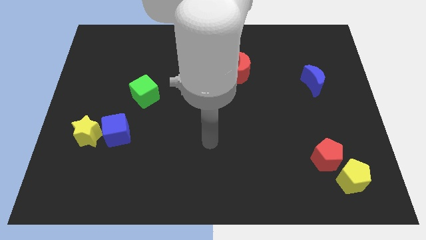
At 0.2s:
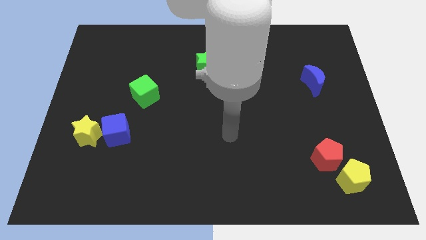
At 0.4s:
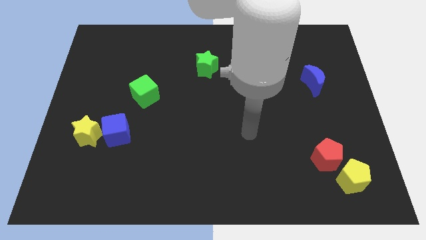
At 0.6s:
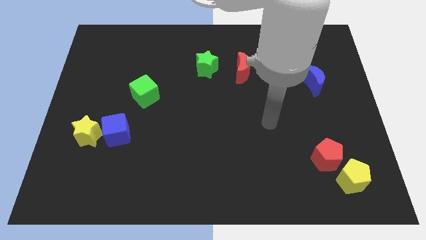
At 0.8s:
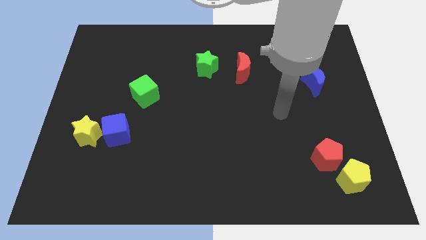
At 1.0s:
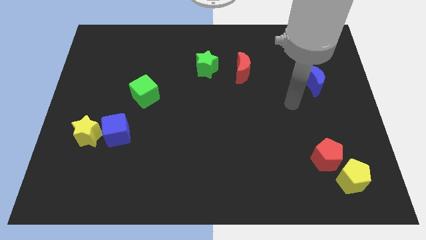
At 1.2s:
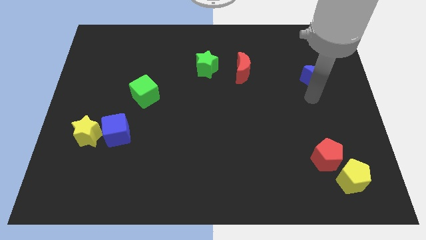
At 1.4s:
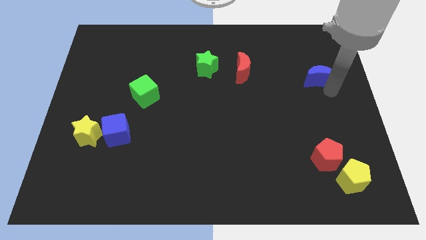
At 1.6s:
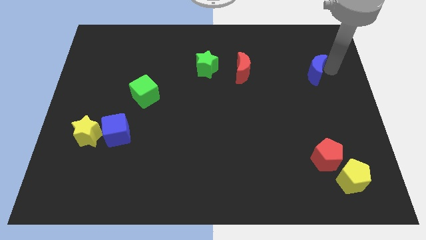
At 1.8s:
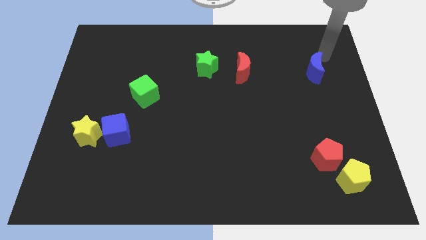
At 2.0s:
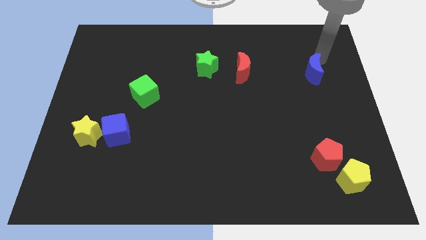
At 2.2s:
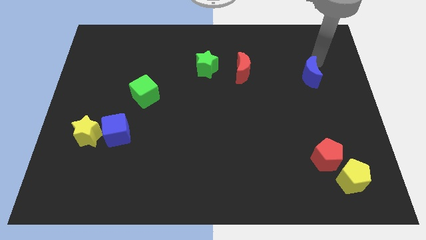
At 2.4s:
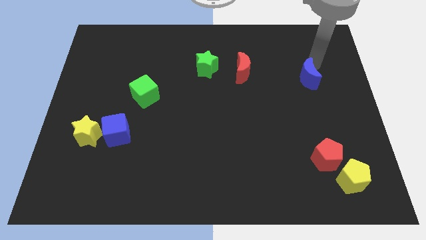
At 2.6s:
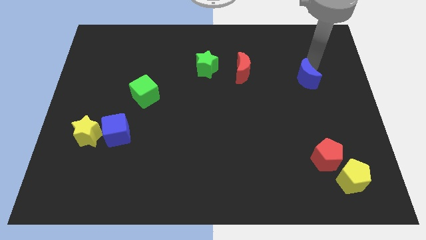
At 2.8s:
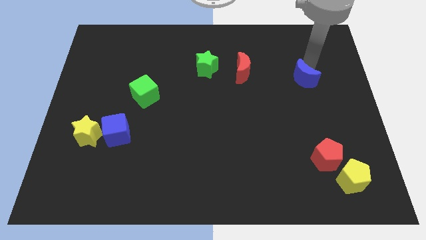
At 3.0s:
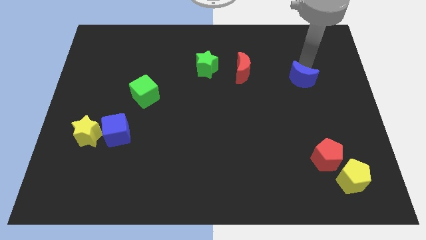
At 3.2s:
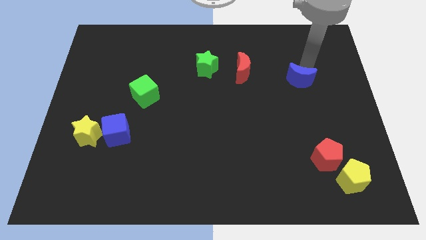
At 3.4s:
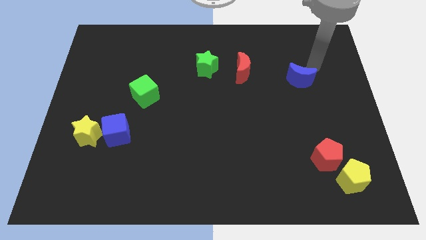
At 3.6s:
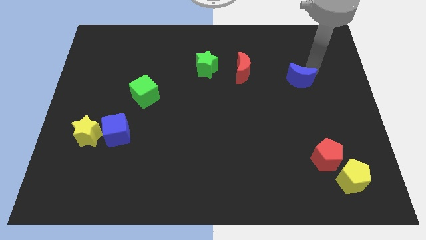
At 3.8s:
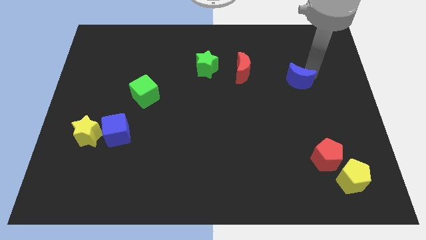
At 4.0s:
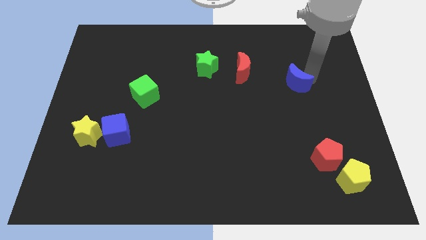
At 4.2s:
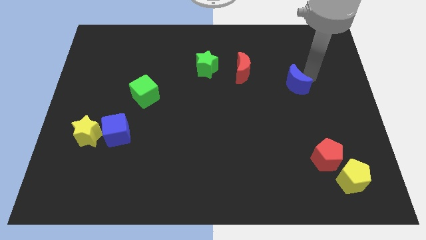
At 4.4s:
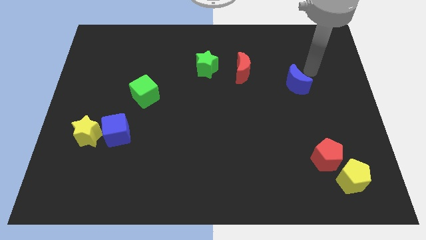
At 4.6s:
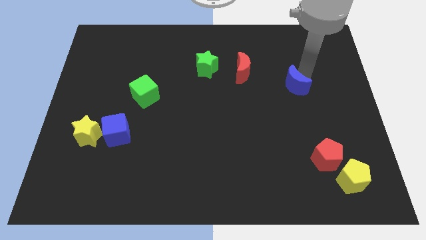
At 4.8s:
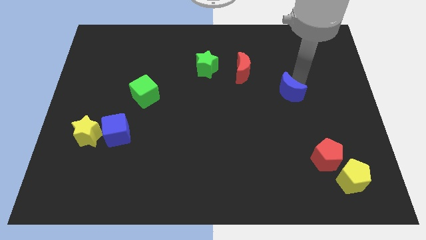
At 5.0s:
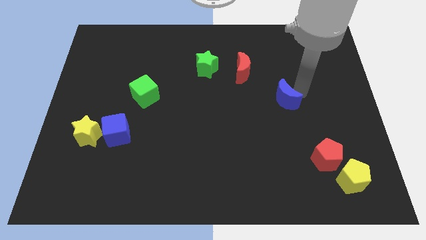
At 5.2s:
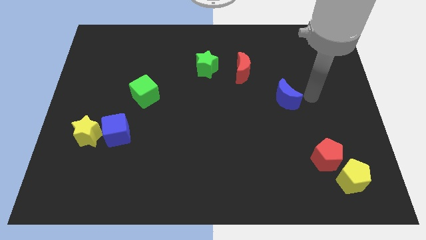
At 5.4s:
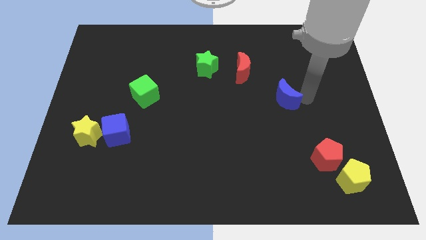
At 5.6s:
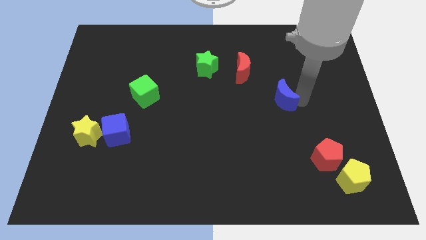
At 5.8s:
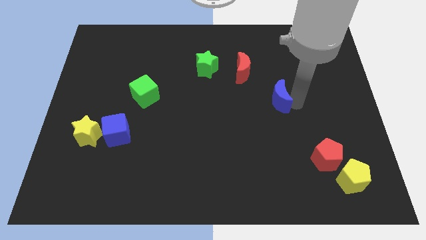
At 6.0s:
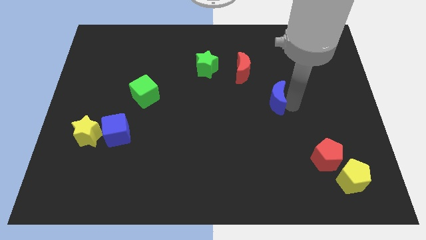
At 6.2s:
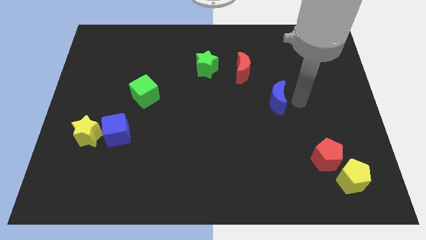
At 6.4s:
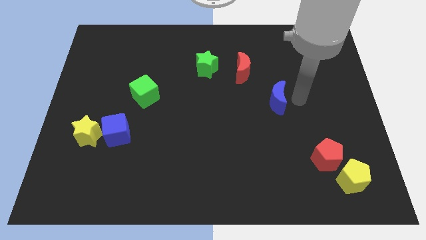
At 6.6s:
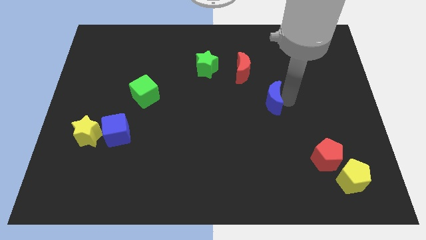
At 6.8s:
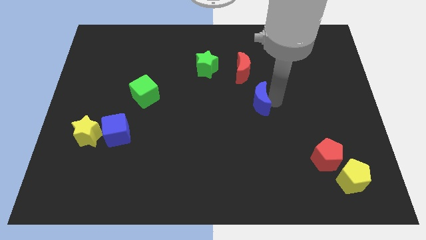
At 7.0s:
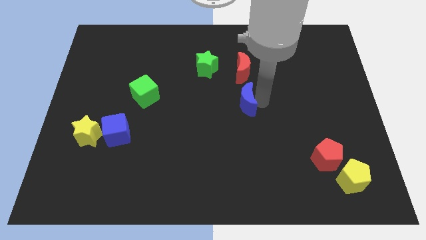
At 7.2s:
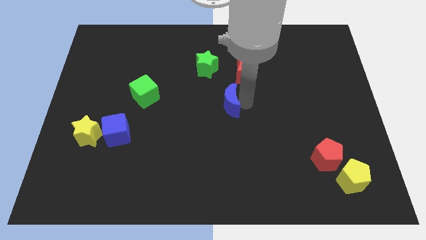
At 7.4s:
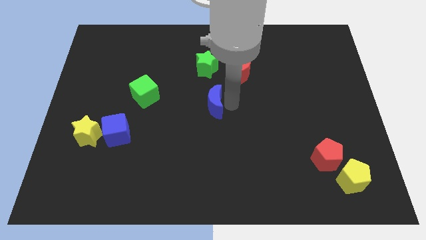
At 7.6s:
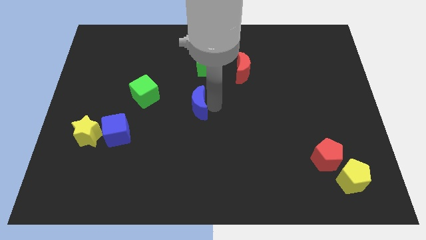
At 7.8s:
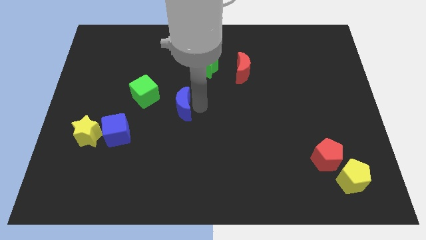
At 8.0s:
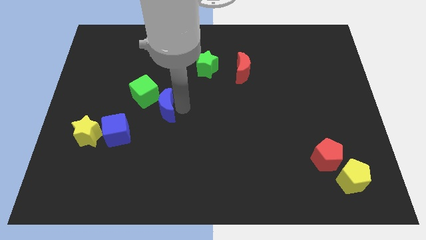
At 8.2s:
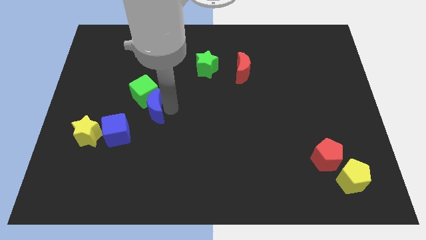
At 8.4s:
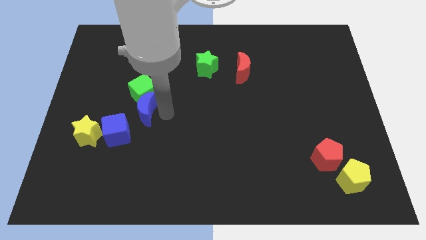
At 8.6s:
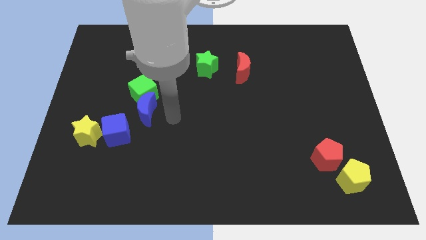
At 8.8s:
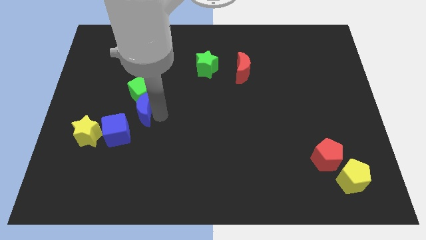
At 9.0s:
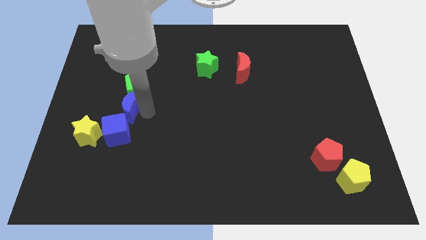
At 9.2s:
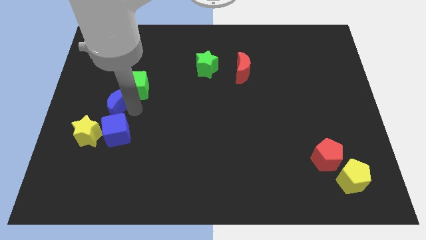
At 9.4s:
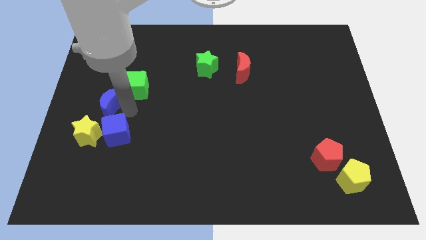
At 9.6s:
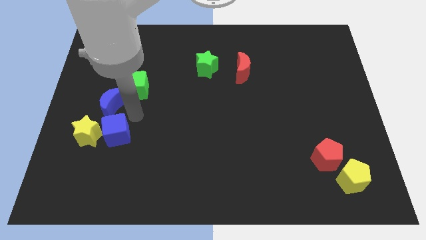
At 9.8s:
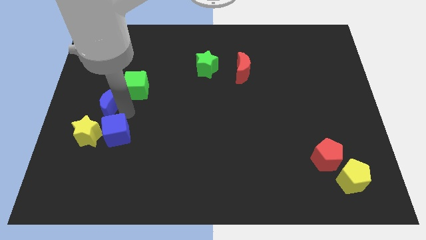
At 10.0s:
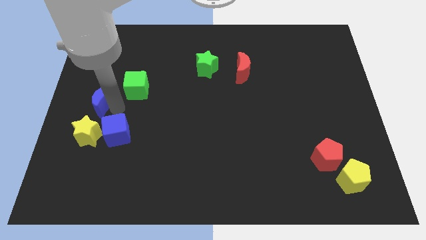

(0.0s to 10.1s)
push the blue moon to the center left

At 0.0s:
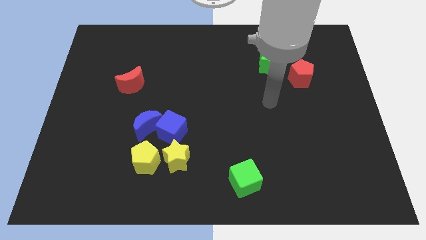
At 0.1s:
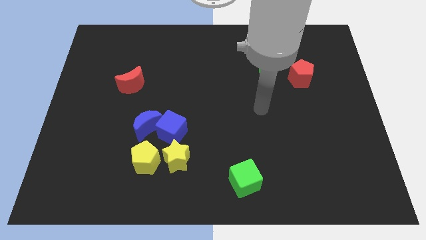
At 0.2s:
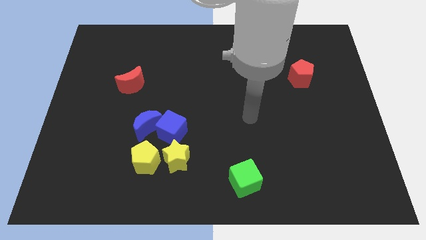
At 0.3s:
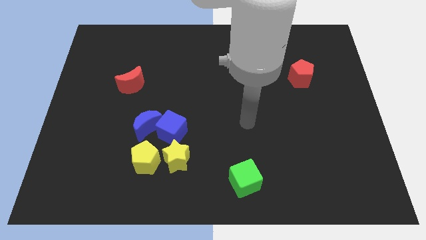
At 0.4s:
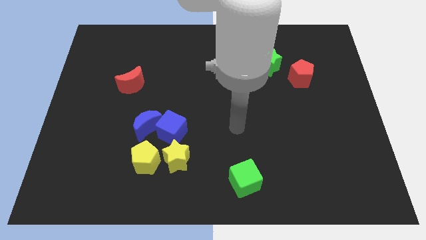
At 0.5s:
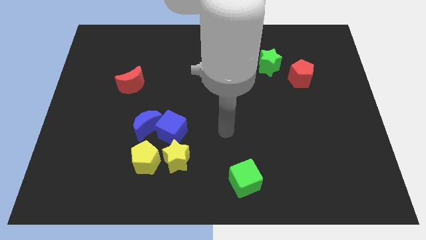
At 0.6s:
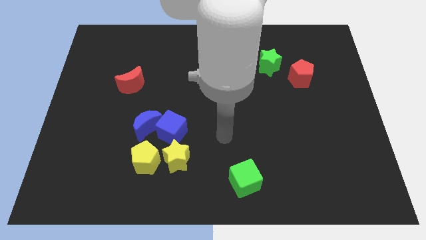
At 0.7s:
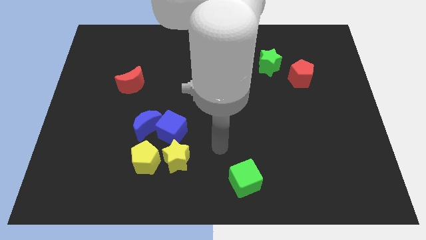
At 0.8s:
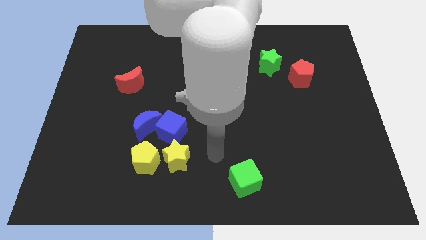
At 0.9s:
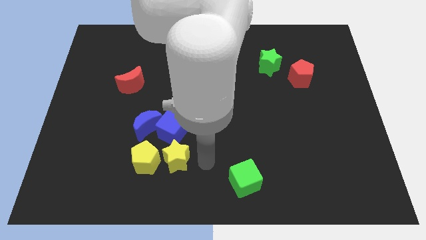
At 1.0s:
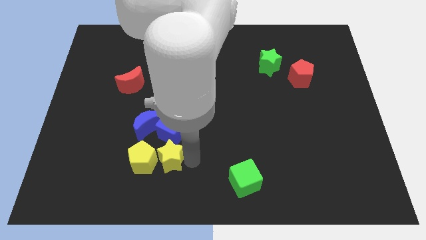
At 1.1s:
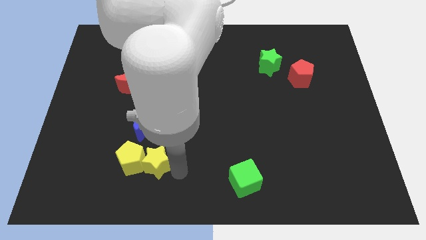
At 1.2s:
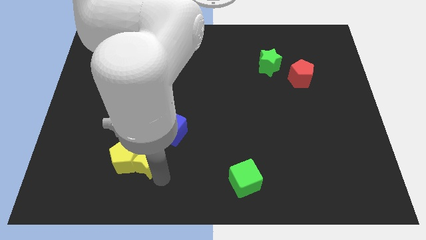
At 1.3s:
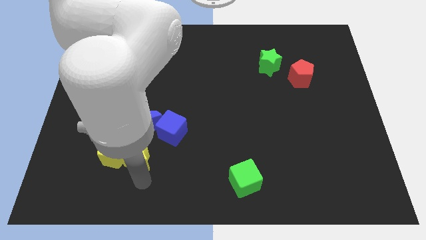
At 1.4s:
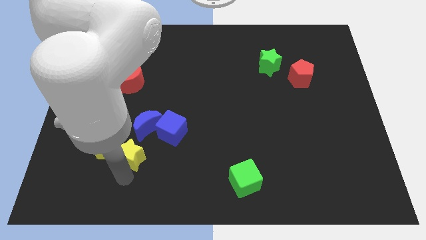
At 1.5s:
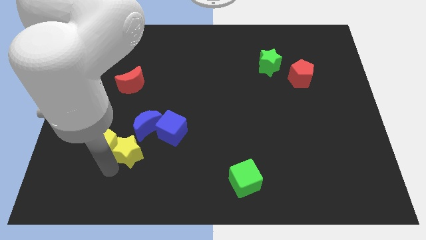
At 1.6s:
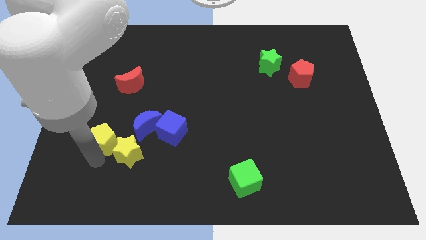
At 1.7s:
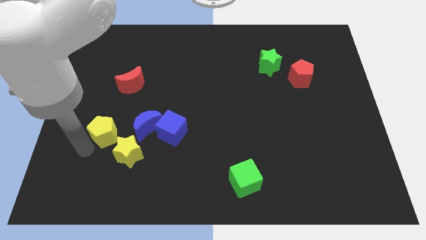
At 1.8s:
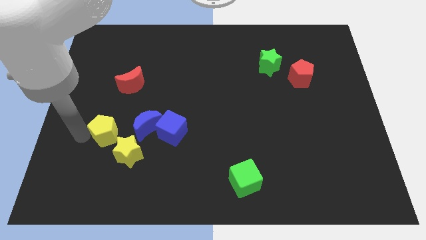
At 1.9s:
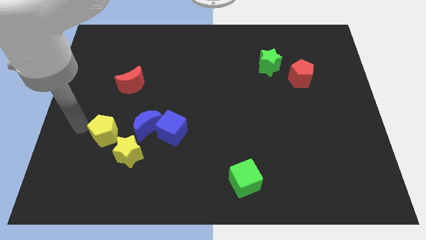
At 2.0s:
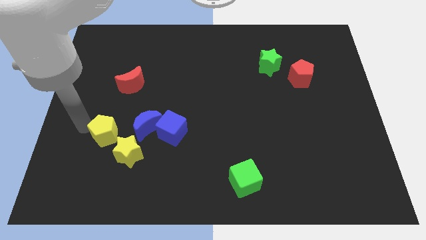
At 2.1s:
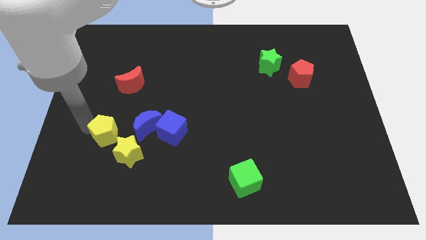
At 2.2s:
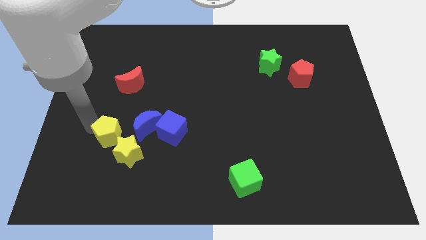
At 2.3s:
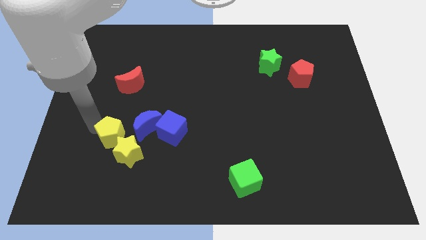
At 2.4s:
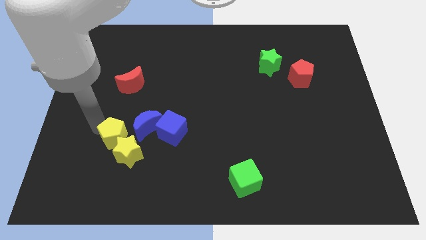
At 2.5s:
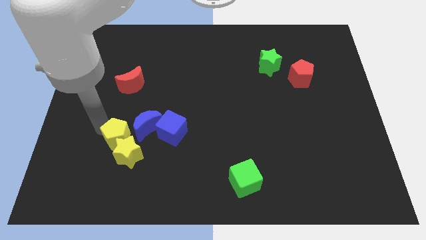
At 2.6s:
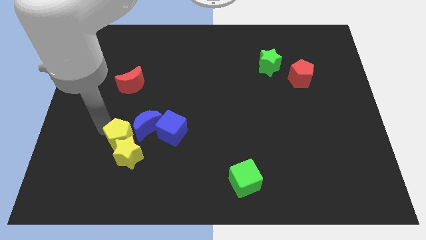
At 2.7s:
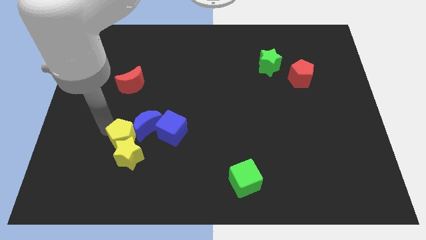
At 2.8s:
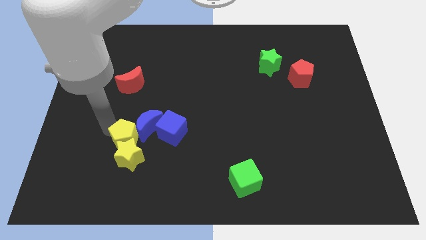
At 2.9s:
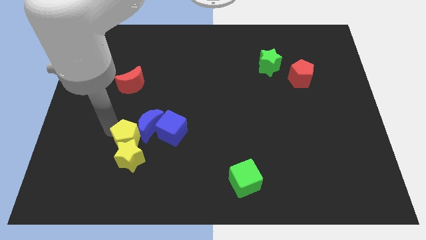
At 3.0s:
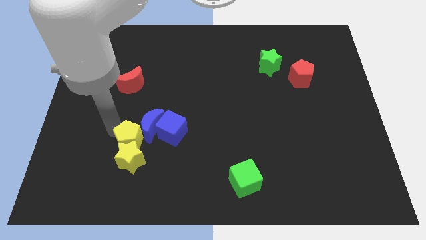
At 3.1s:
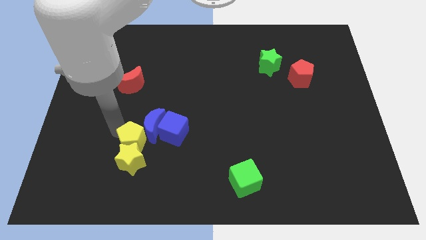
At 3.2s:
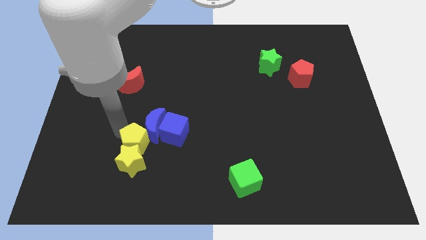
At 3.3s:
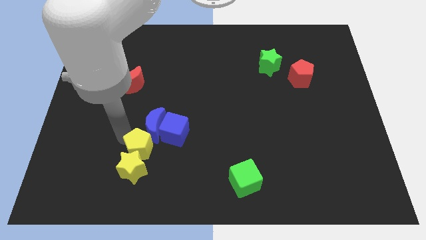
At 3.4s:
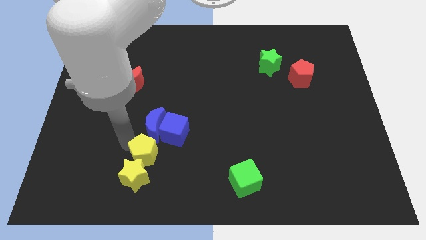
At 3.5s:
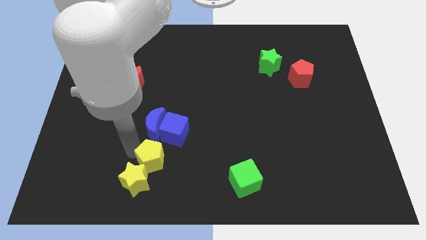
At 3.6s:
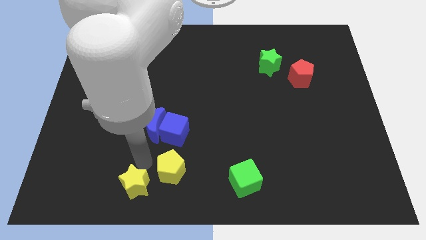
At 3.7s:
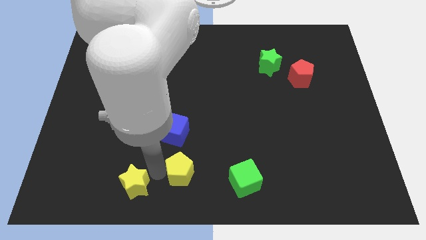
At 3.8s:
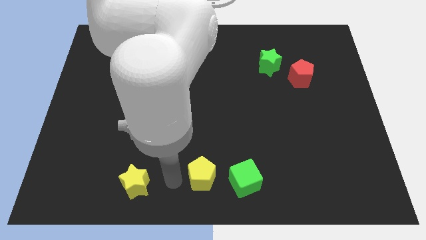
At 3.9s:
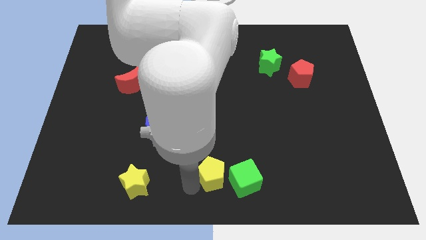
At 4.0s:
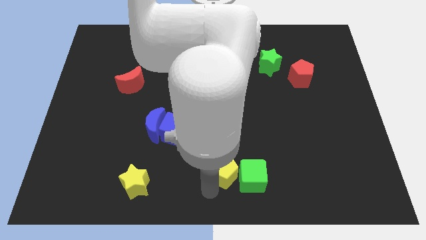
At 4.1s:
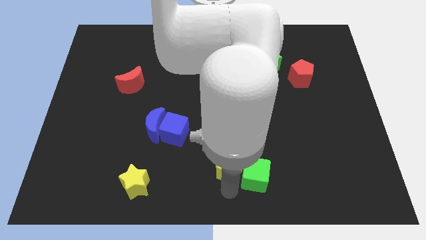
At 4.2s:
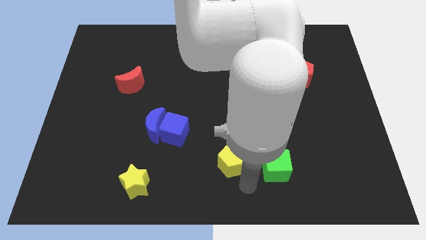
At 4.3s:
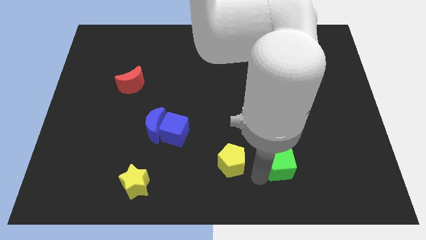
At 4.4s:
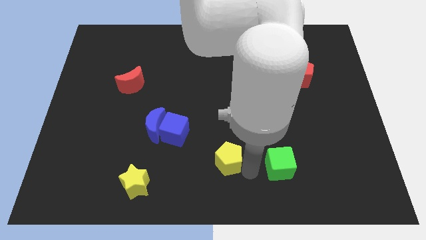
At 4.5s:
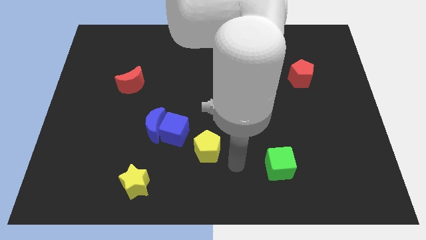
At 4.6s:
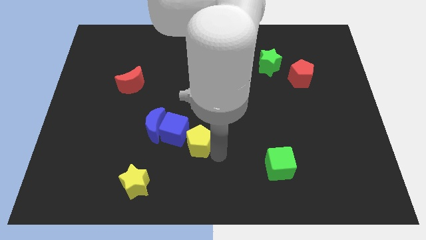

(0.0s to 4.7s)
move the yellow pentagon to the middle
